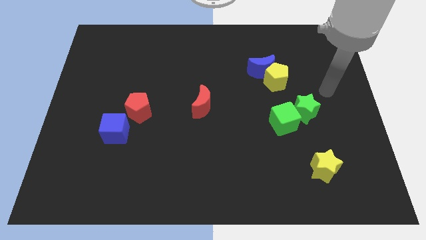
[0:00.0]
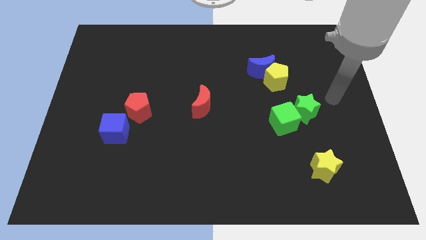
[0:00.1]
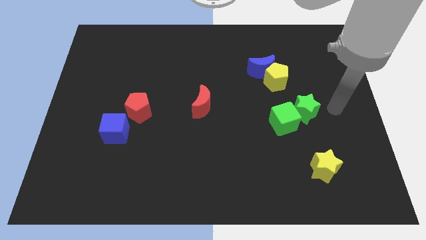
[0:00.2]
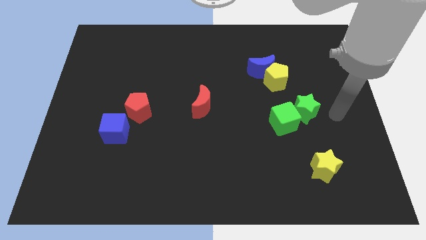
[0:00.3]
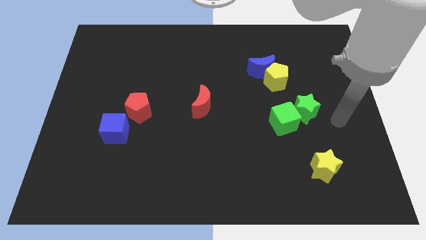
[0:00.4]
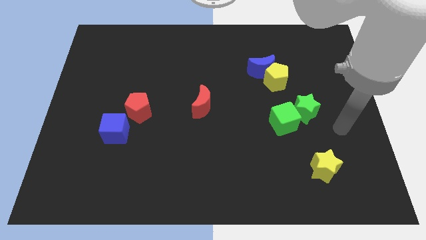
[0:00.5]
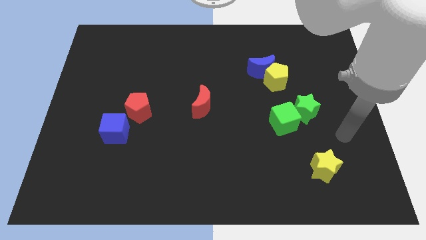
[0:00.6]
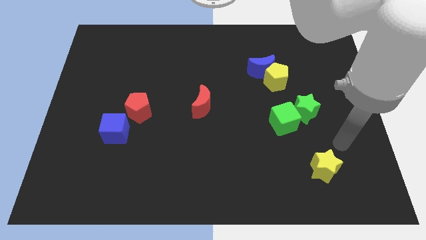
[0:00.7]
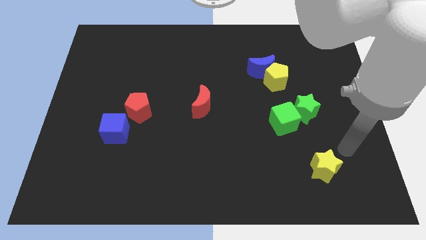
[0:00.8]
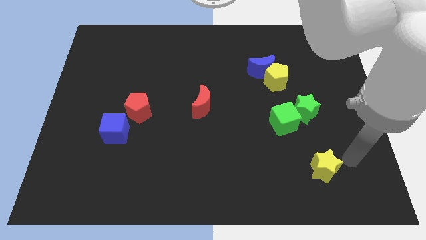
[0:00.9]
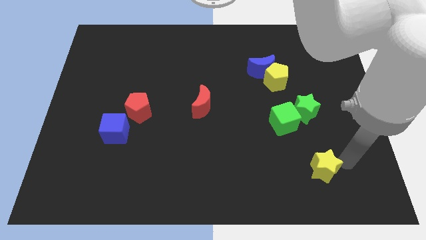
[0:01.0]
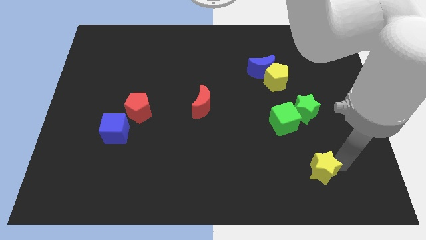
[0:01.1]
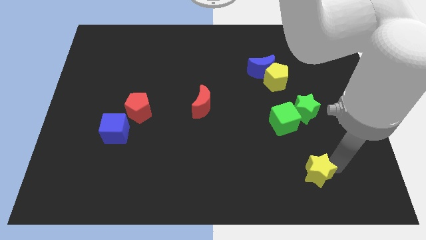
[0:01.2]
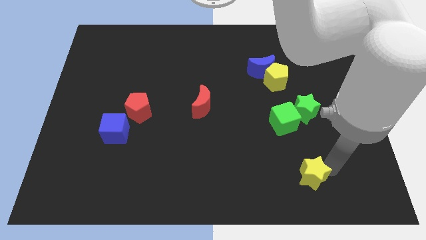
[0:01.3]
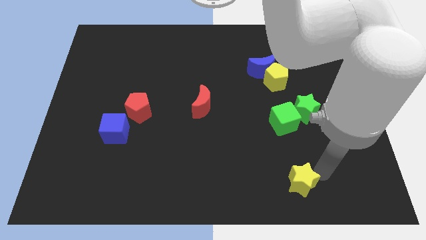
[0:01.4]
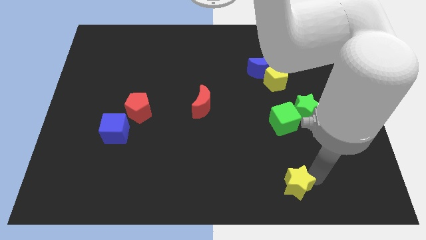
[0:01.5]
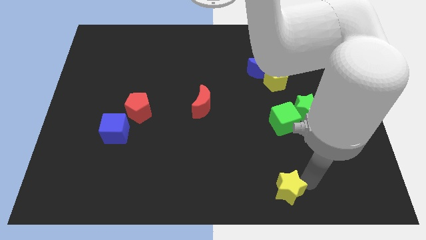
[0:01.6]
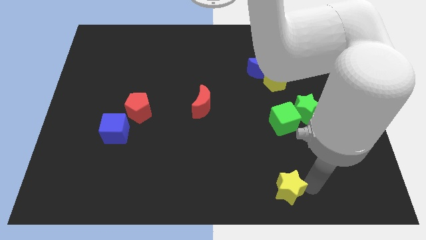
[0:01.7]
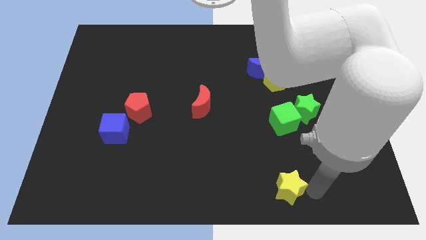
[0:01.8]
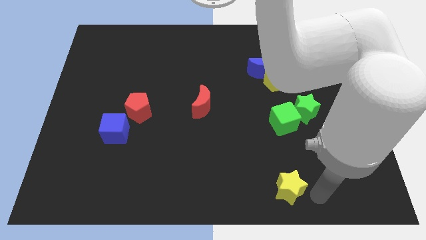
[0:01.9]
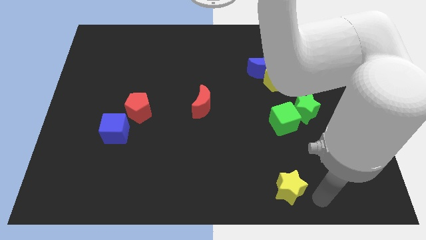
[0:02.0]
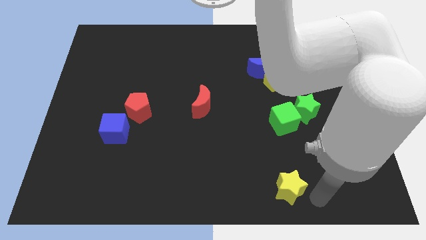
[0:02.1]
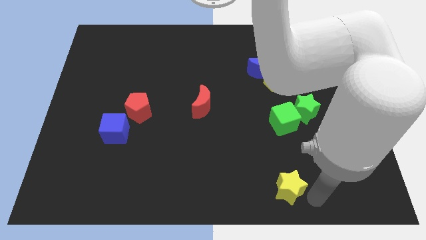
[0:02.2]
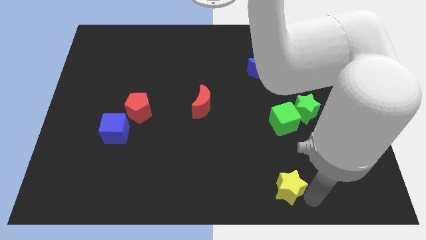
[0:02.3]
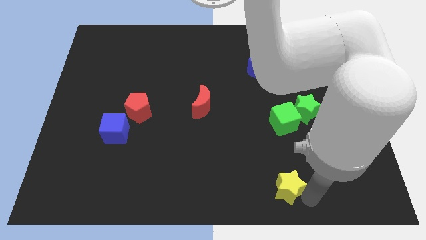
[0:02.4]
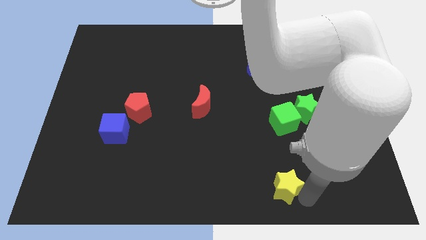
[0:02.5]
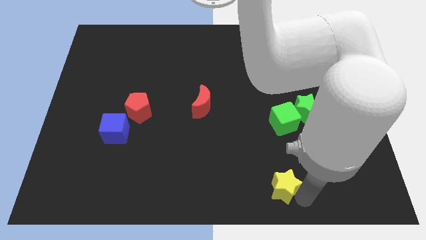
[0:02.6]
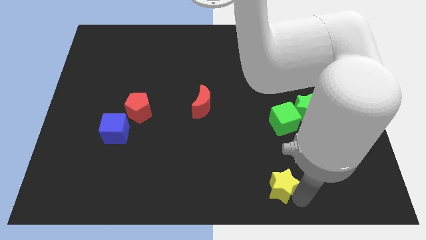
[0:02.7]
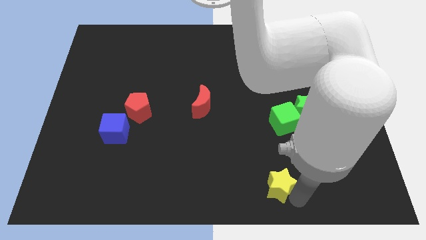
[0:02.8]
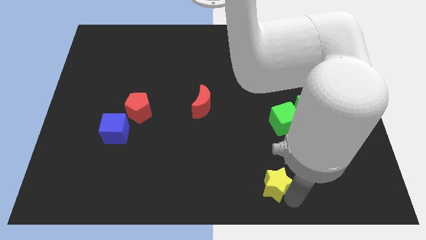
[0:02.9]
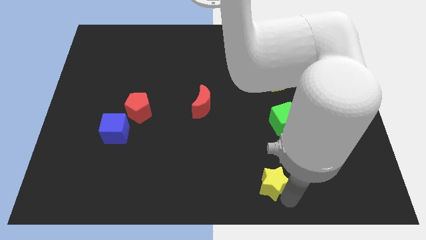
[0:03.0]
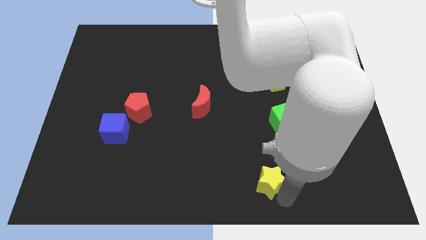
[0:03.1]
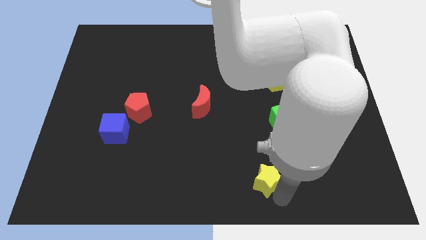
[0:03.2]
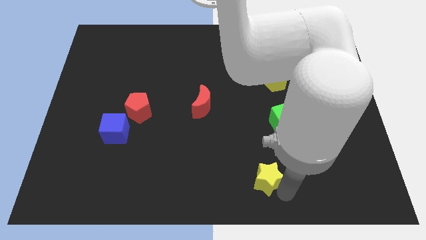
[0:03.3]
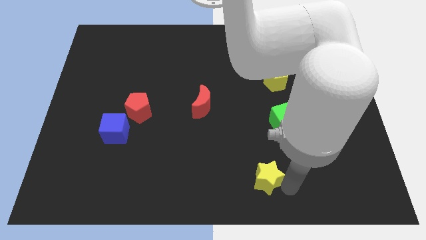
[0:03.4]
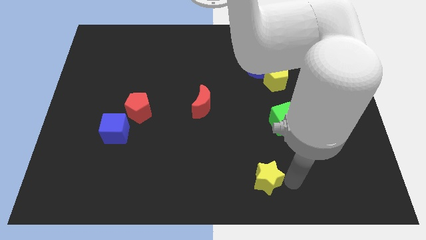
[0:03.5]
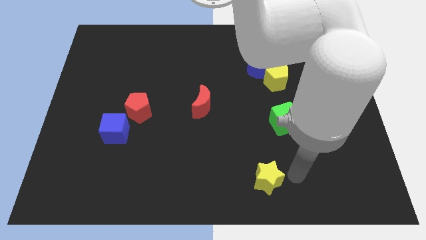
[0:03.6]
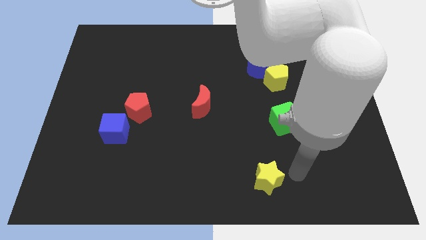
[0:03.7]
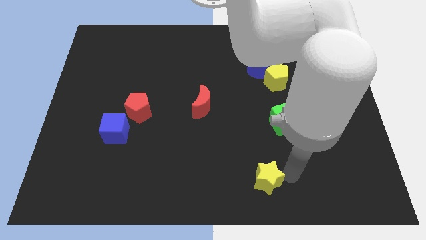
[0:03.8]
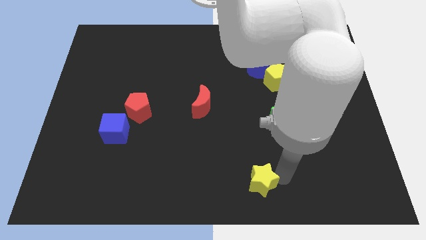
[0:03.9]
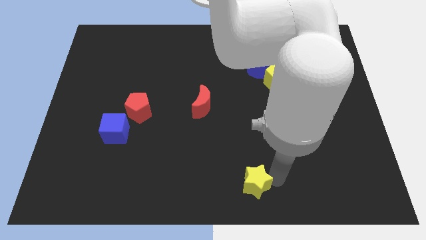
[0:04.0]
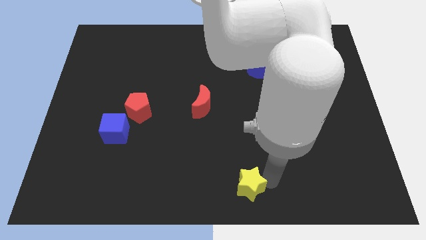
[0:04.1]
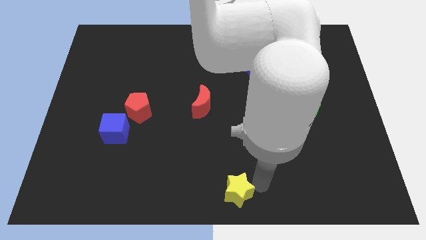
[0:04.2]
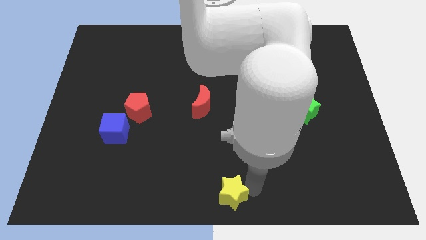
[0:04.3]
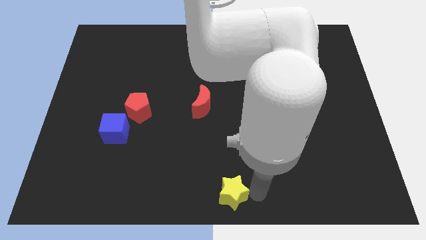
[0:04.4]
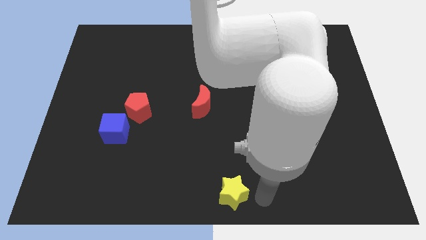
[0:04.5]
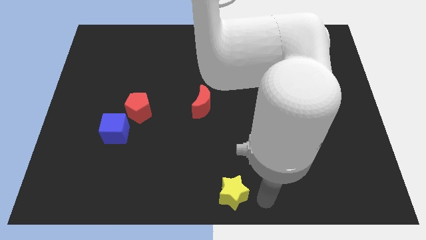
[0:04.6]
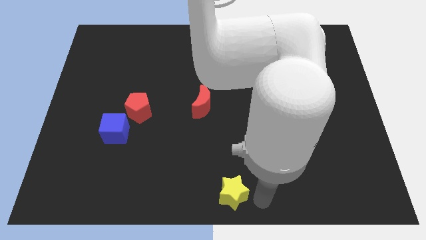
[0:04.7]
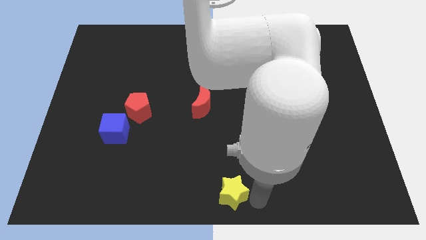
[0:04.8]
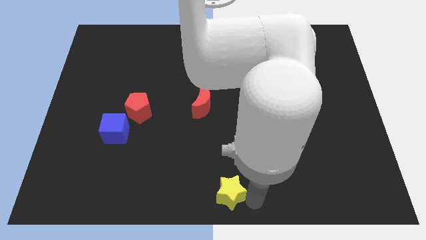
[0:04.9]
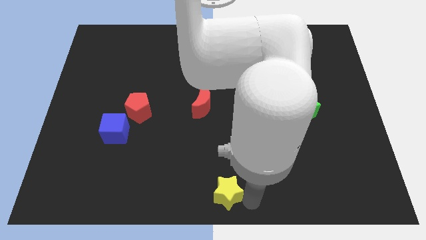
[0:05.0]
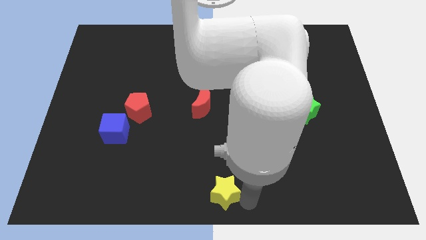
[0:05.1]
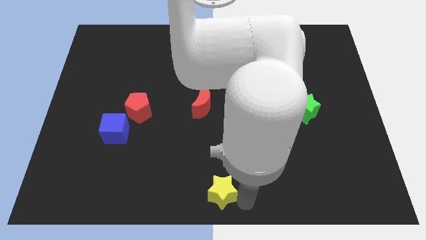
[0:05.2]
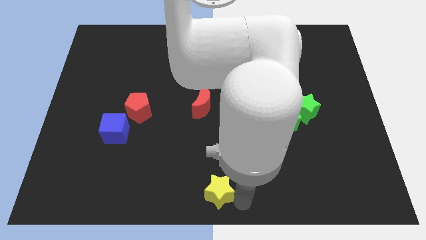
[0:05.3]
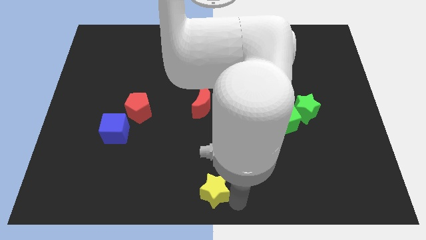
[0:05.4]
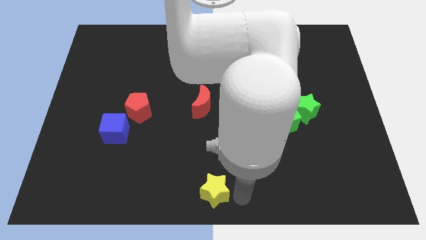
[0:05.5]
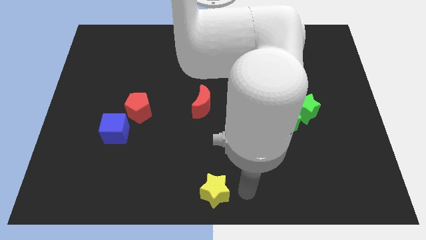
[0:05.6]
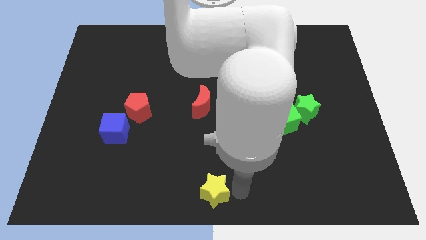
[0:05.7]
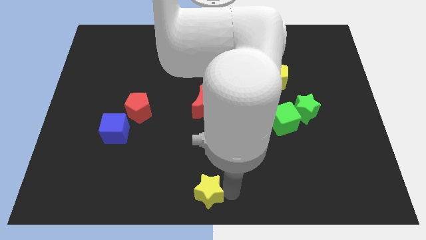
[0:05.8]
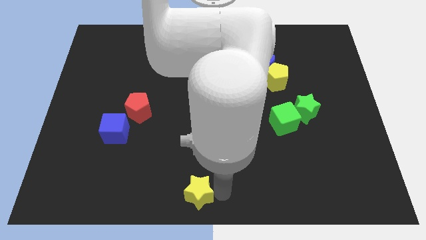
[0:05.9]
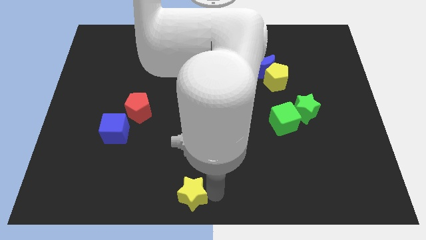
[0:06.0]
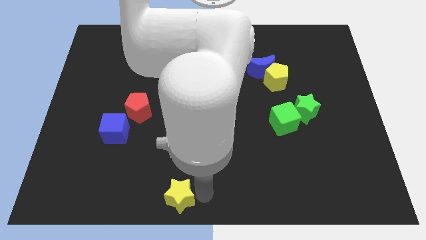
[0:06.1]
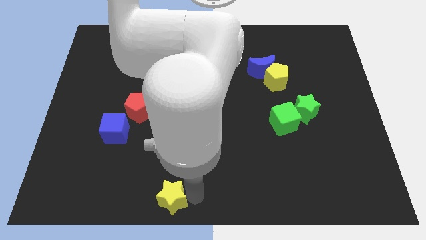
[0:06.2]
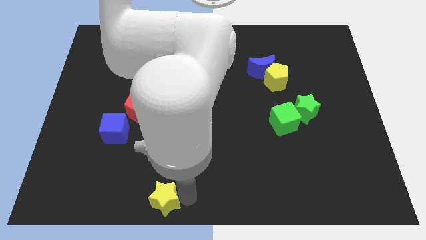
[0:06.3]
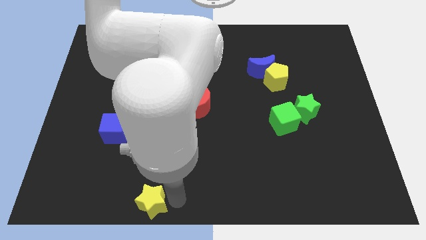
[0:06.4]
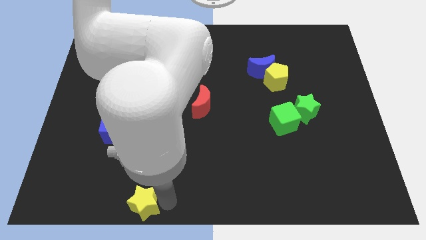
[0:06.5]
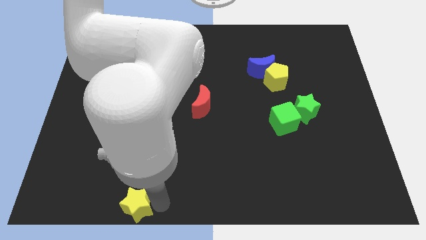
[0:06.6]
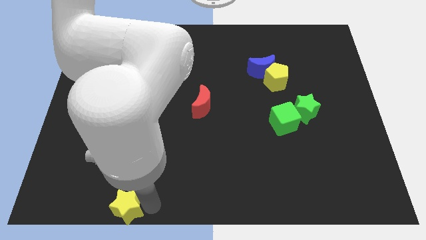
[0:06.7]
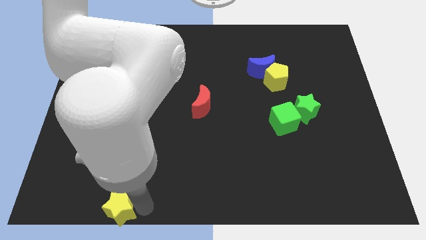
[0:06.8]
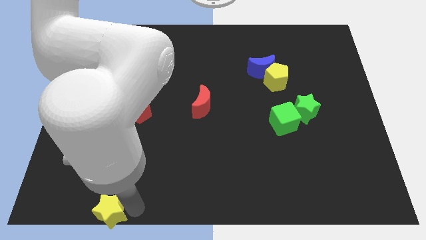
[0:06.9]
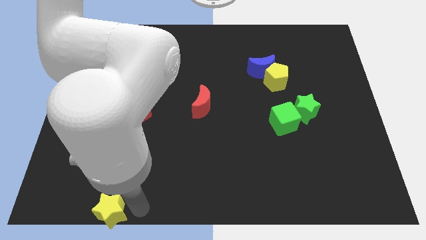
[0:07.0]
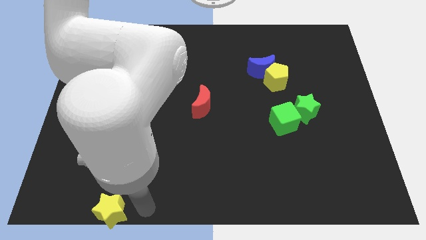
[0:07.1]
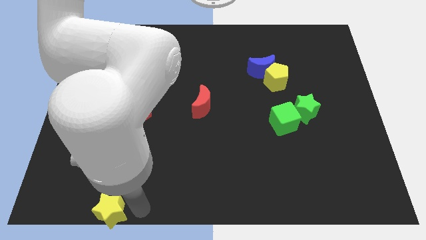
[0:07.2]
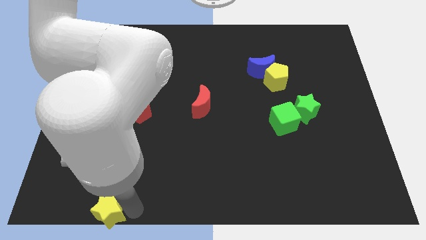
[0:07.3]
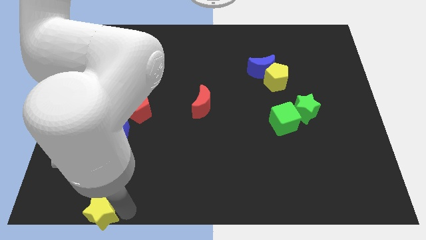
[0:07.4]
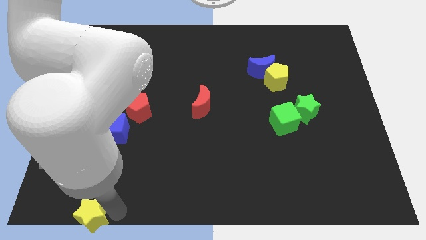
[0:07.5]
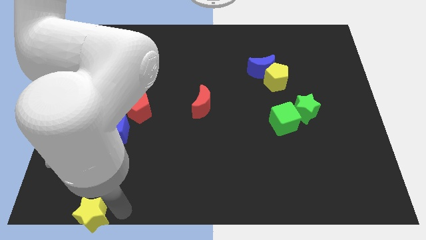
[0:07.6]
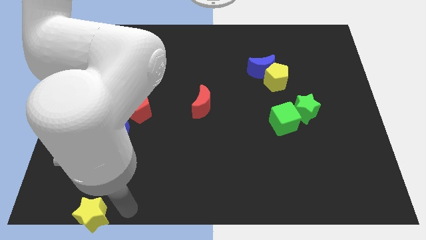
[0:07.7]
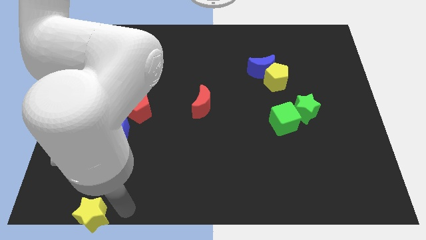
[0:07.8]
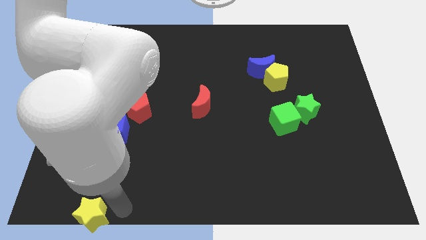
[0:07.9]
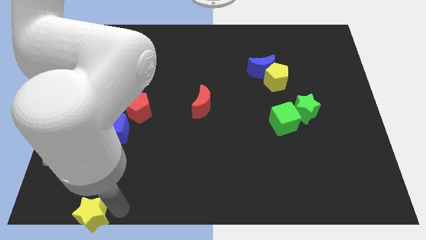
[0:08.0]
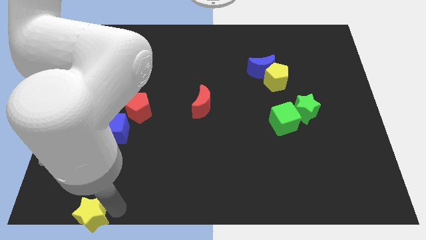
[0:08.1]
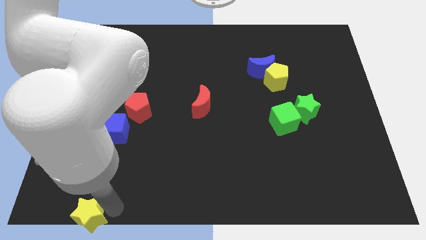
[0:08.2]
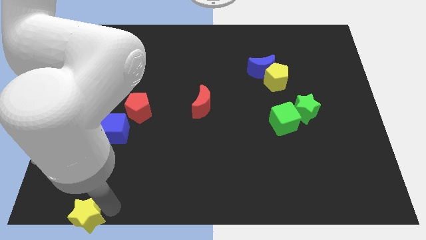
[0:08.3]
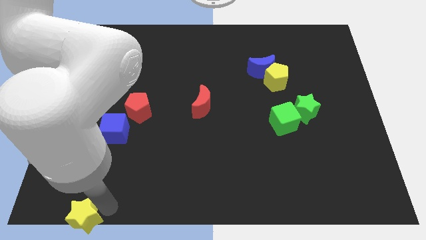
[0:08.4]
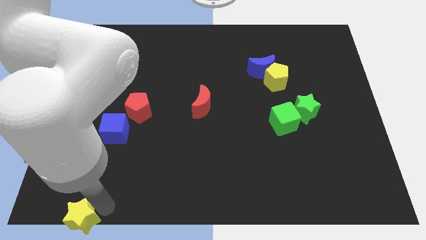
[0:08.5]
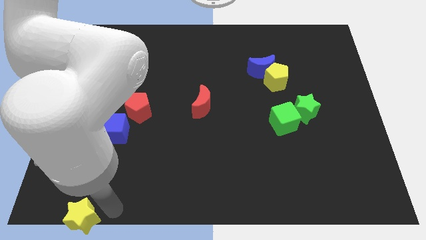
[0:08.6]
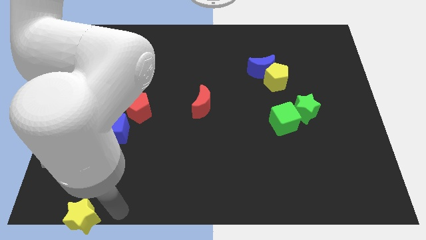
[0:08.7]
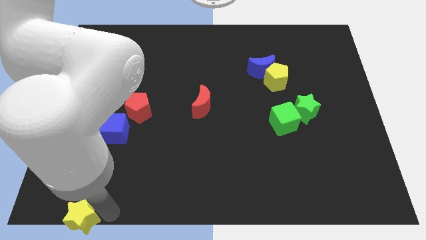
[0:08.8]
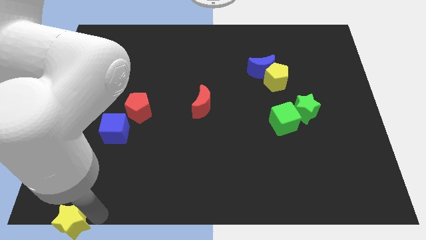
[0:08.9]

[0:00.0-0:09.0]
move the yellow star to the bottom left corner
